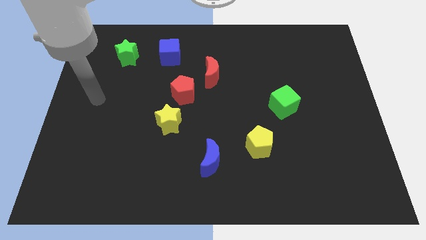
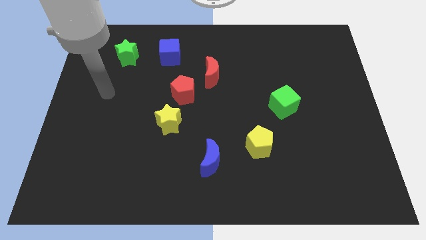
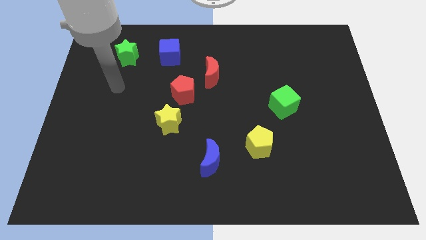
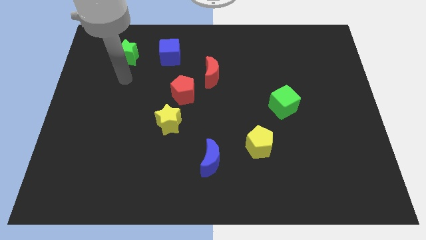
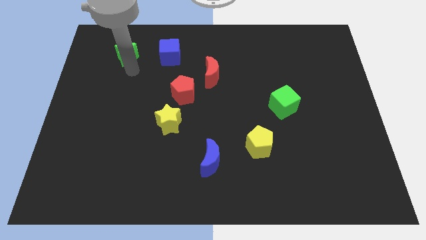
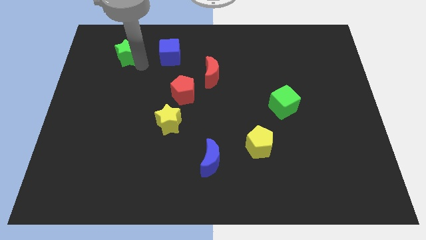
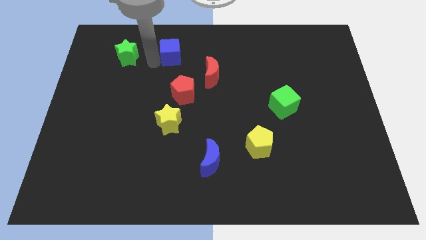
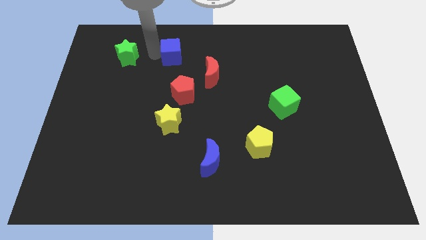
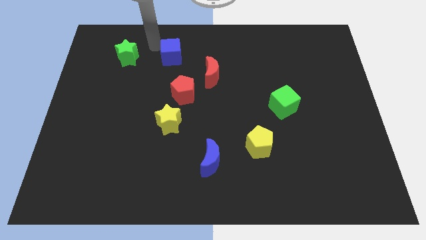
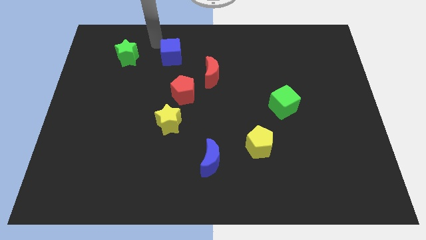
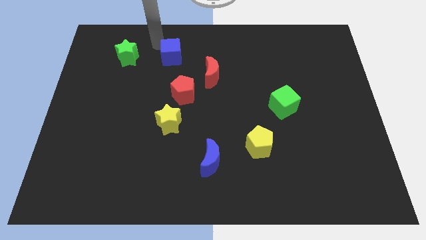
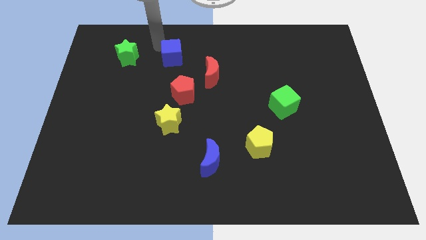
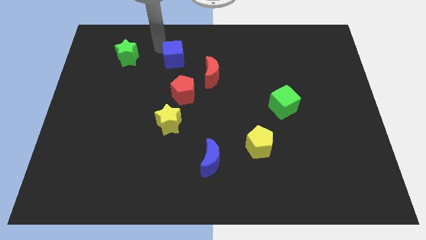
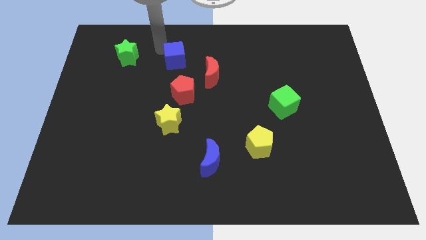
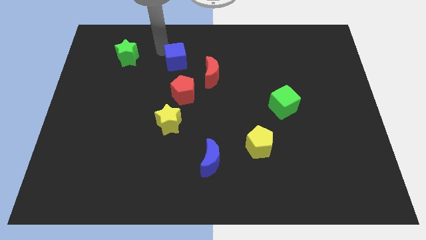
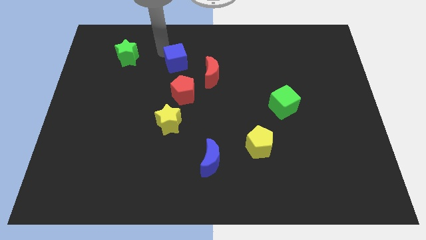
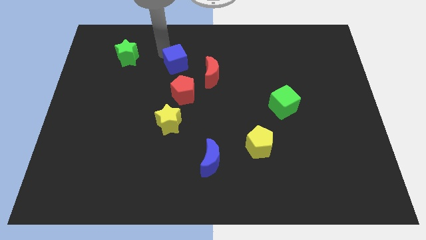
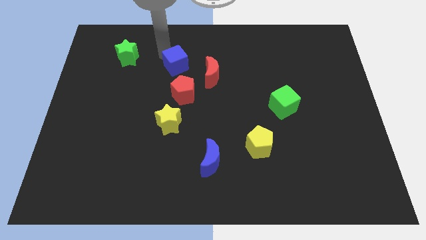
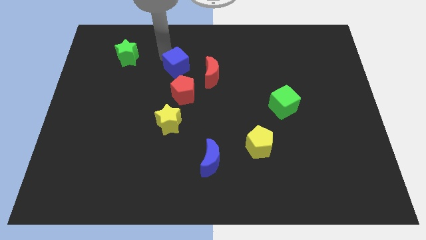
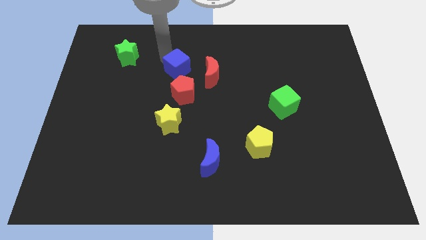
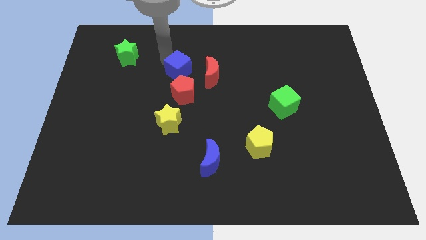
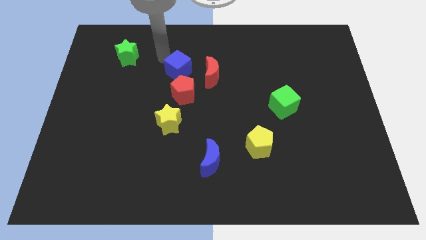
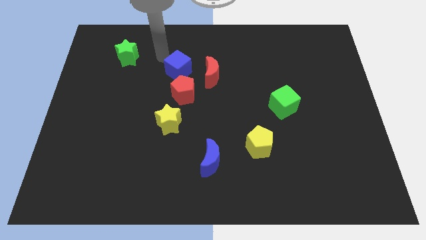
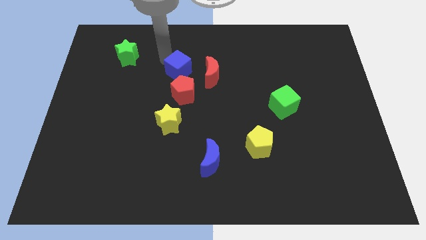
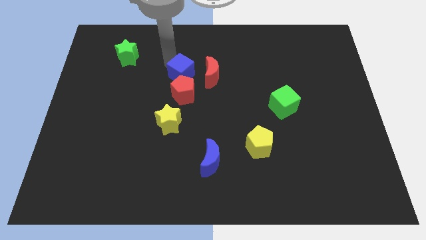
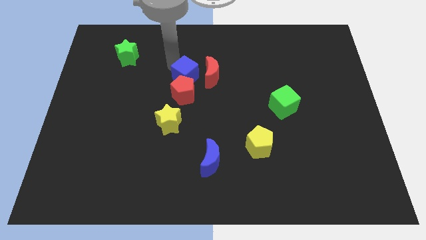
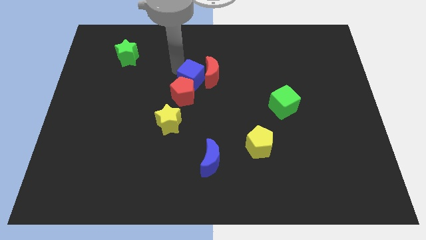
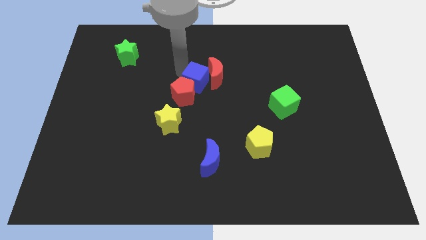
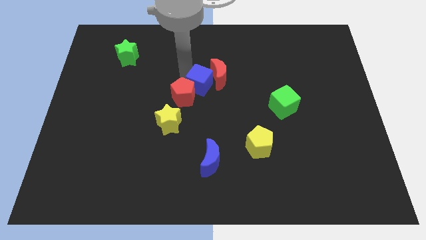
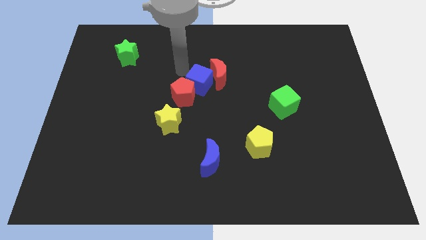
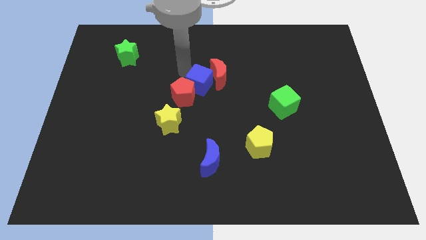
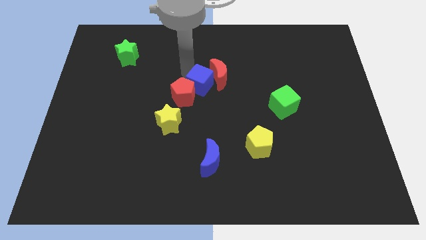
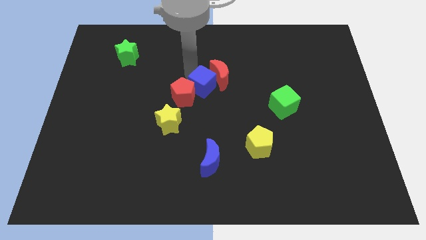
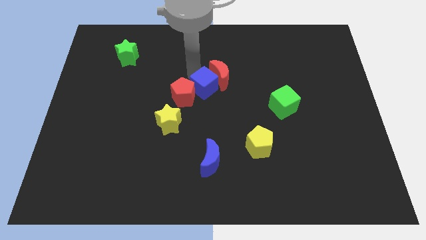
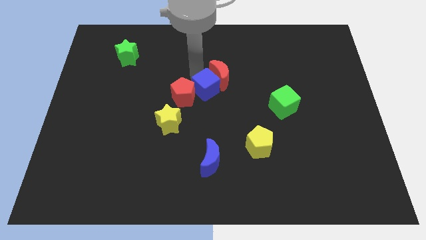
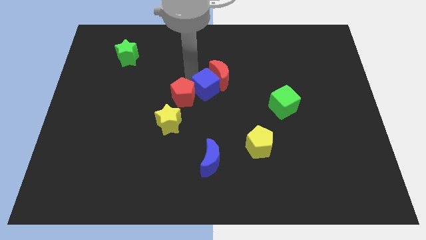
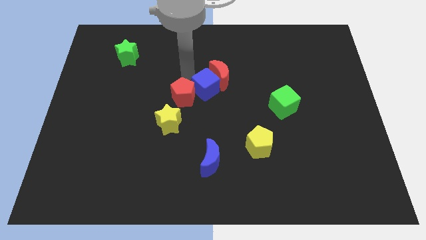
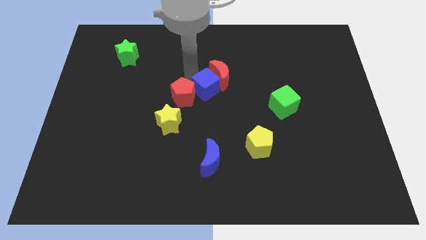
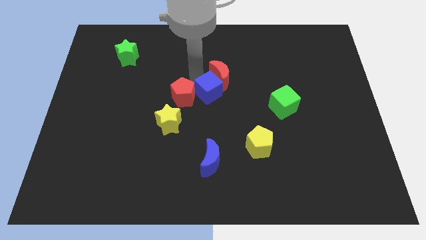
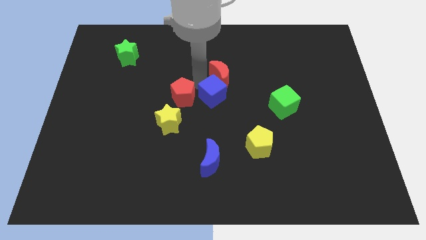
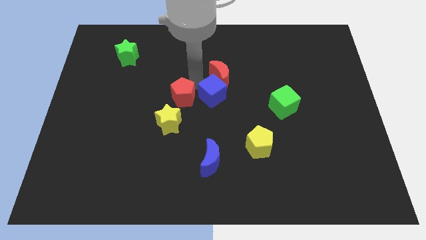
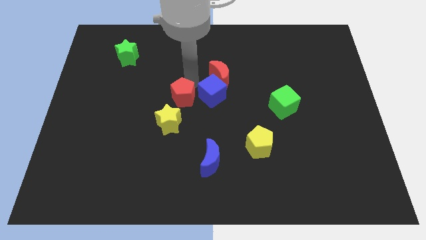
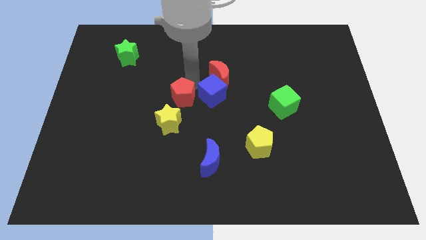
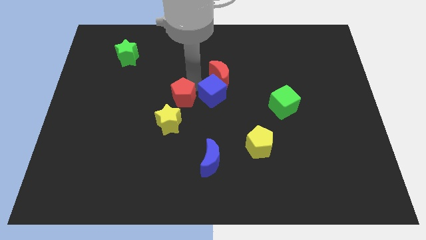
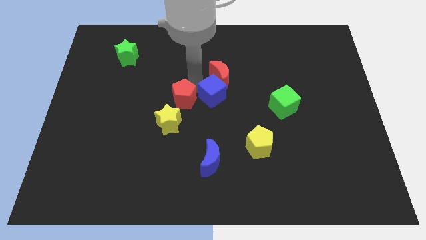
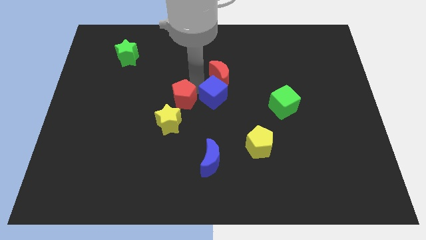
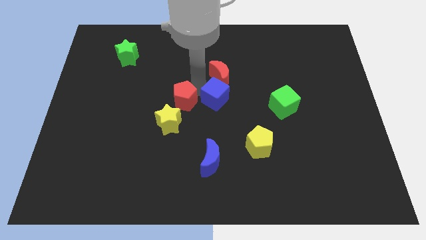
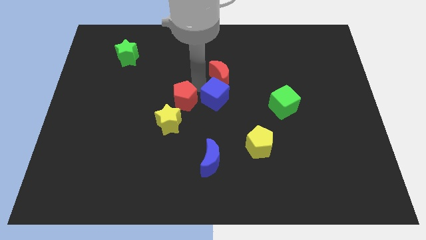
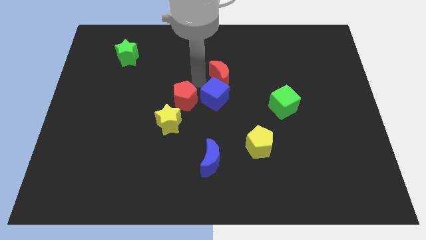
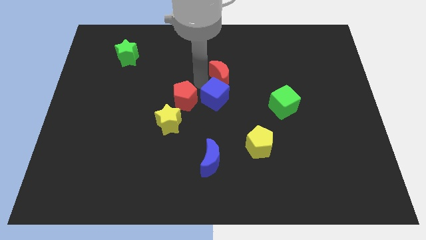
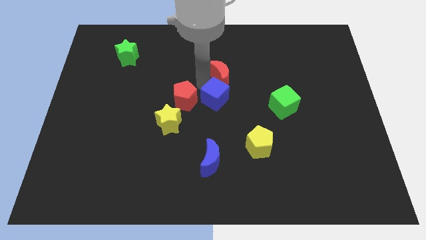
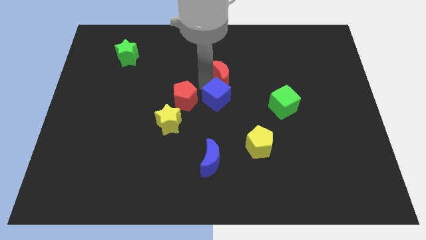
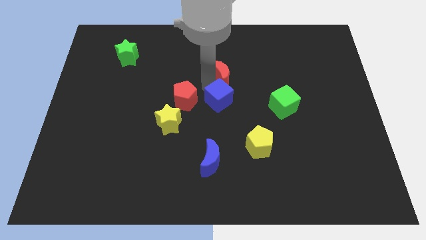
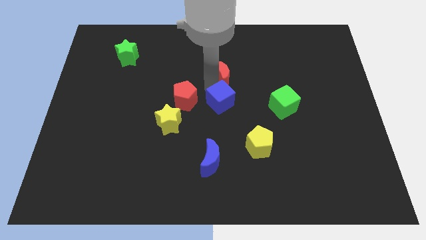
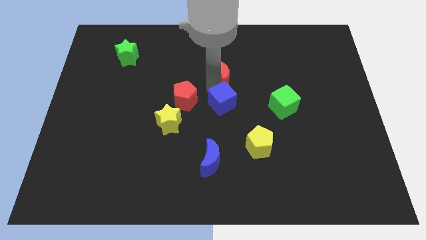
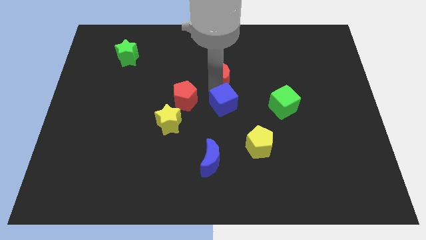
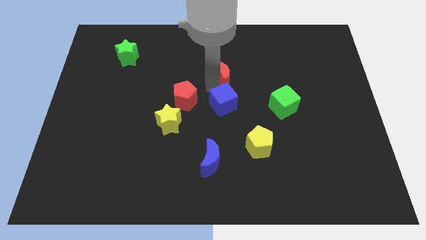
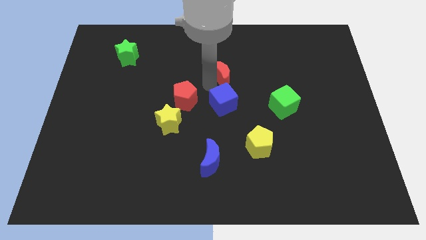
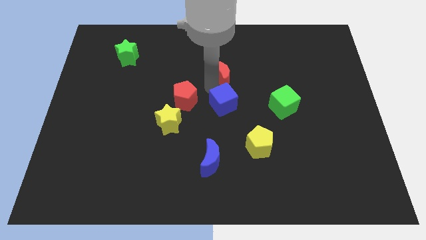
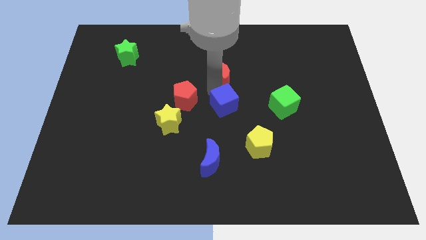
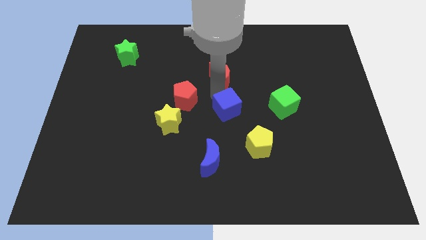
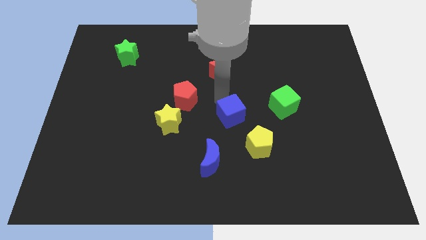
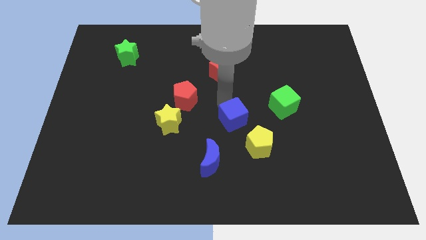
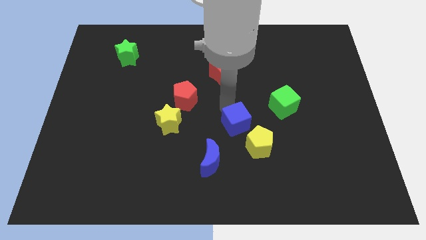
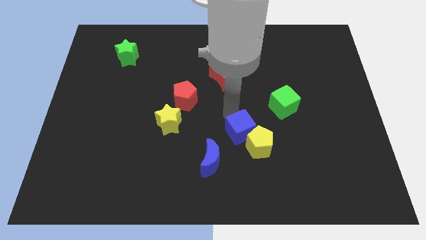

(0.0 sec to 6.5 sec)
put the blue cube close to the yellow pentagon
